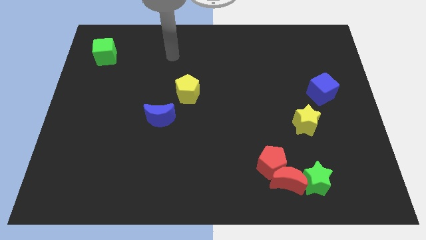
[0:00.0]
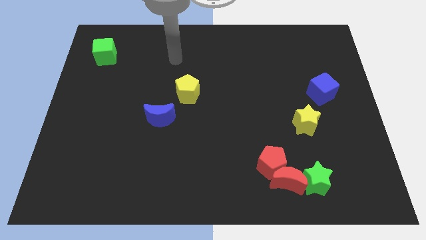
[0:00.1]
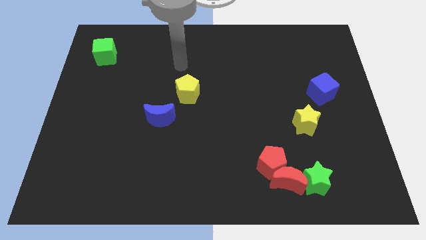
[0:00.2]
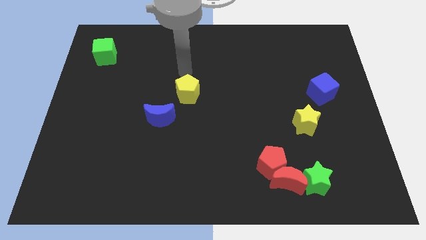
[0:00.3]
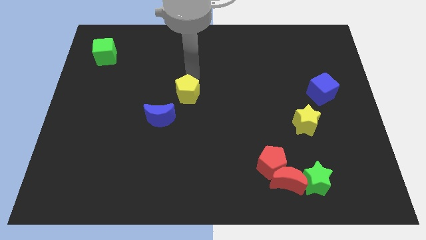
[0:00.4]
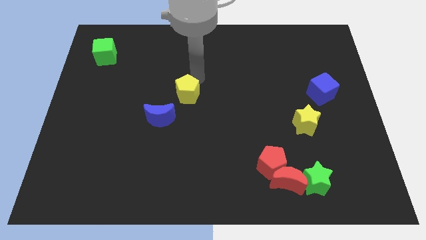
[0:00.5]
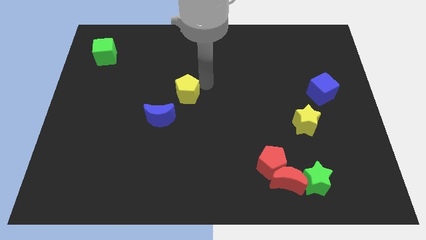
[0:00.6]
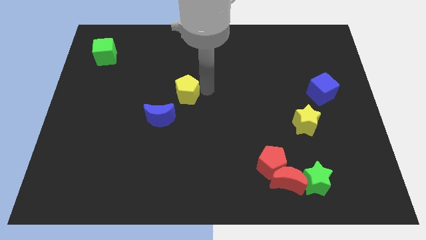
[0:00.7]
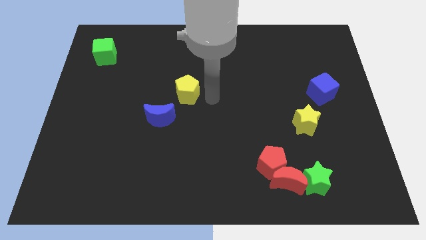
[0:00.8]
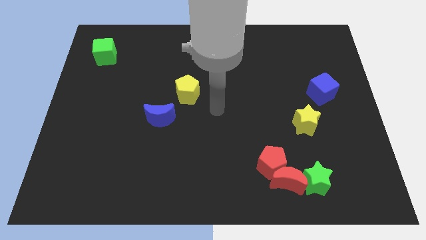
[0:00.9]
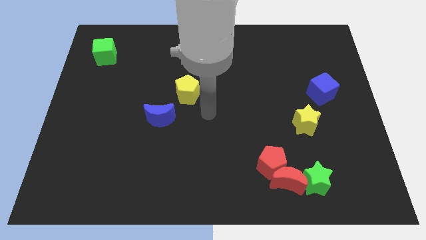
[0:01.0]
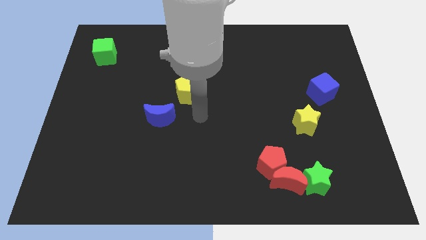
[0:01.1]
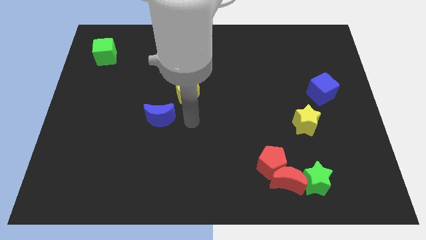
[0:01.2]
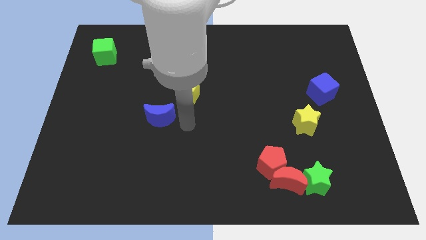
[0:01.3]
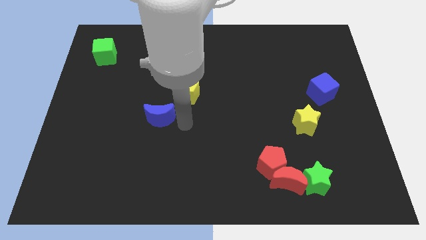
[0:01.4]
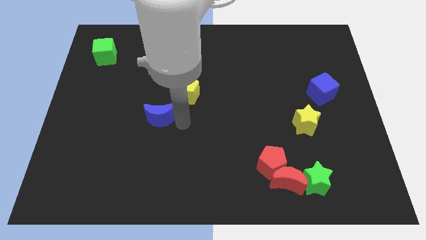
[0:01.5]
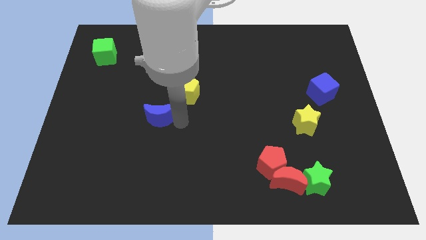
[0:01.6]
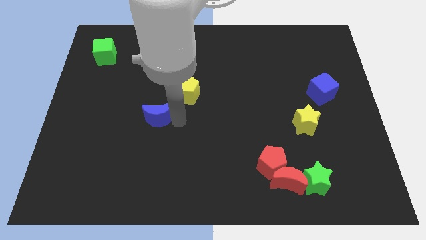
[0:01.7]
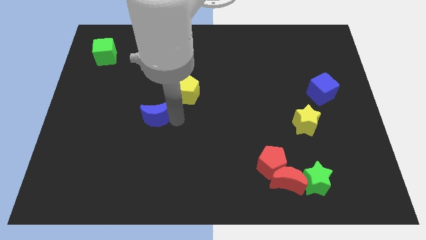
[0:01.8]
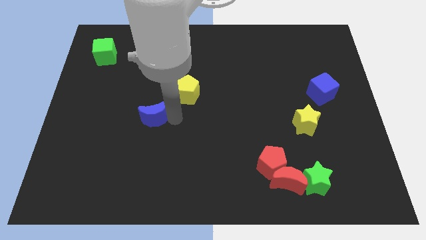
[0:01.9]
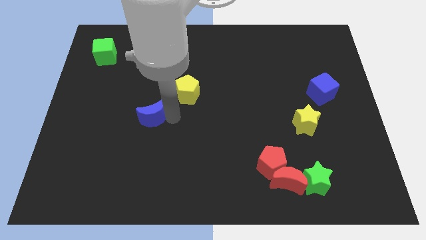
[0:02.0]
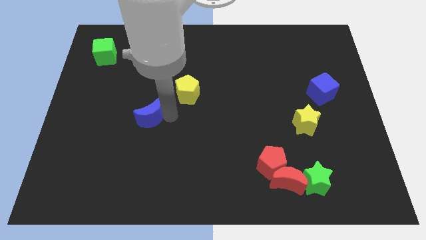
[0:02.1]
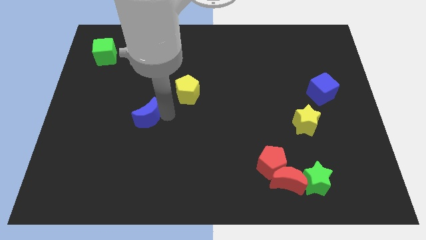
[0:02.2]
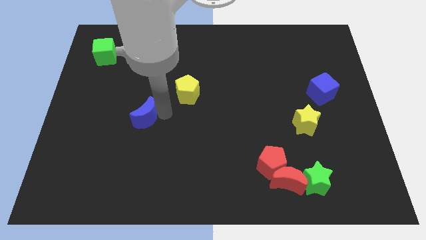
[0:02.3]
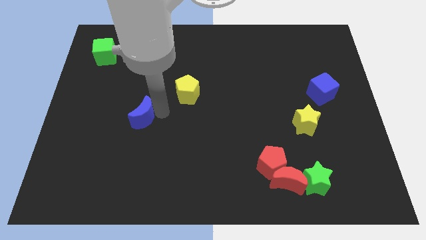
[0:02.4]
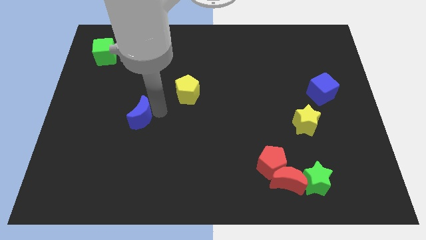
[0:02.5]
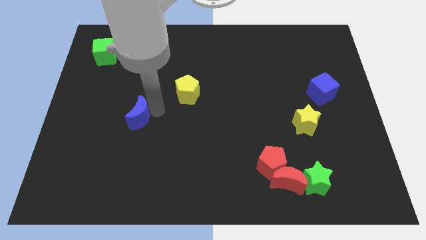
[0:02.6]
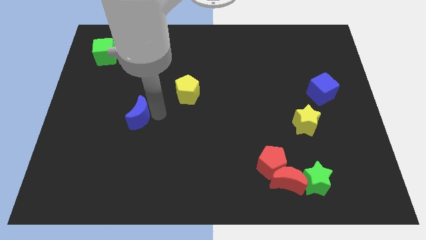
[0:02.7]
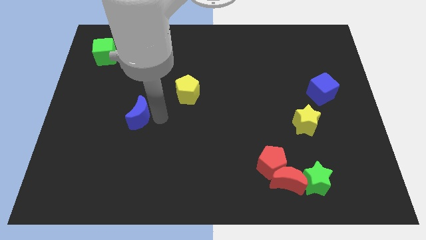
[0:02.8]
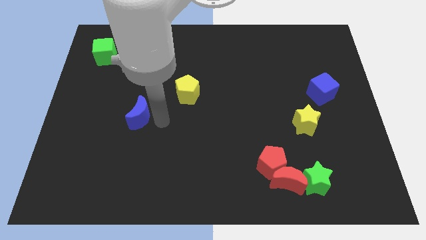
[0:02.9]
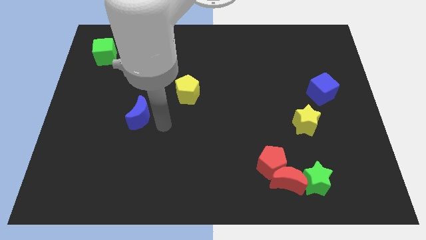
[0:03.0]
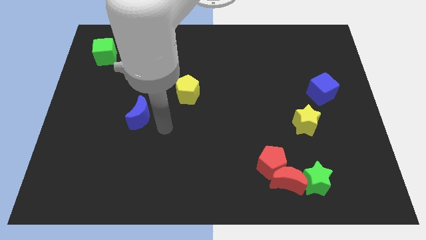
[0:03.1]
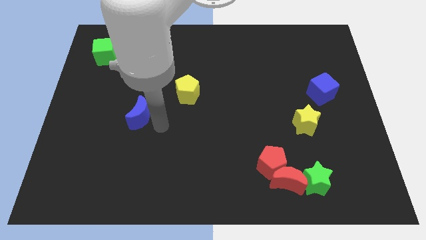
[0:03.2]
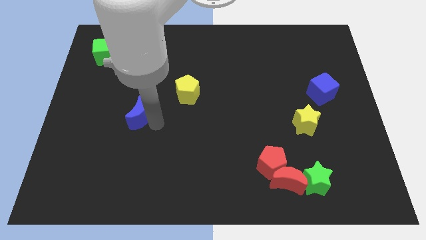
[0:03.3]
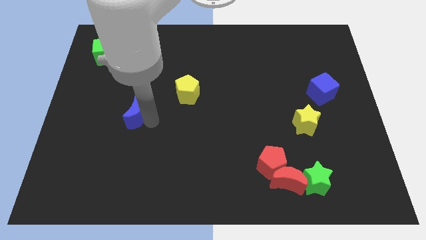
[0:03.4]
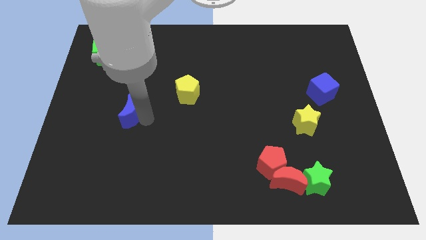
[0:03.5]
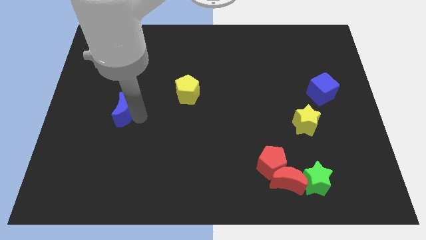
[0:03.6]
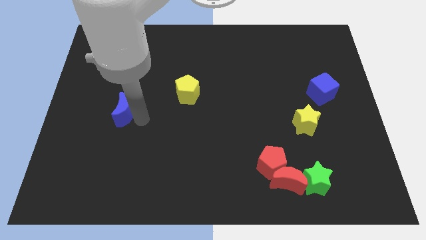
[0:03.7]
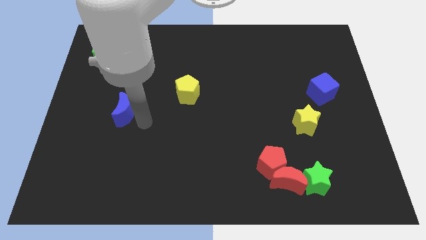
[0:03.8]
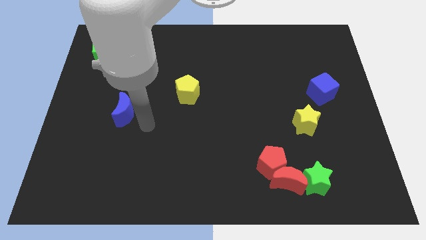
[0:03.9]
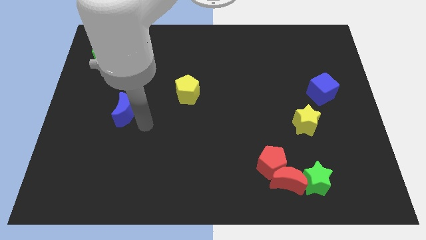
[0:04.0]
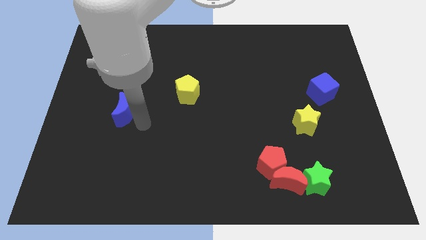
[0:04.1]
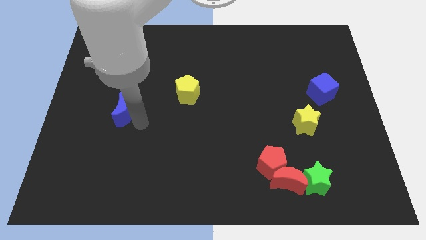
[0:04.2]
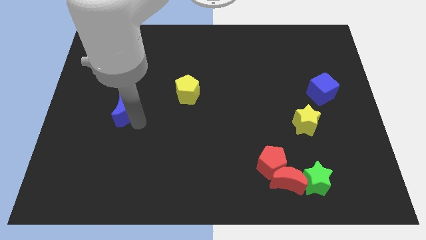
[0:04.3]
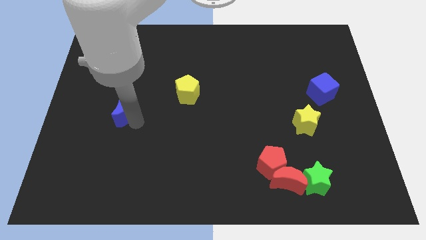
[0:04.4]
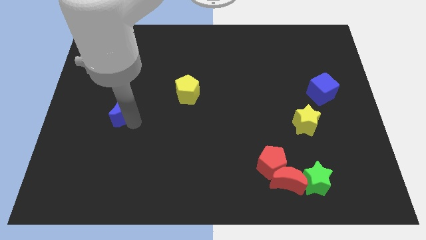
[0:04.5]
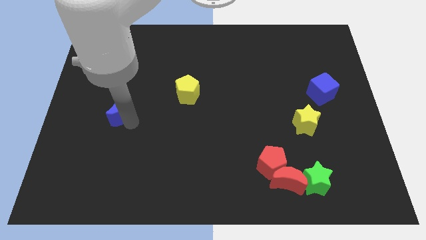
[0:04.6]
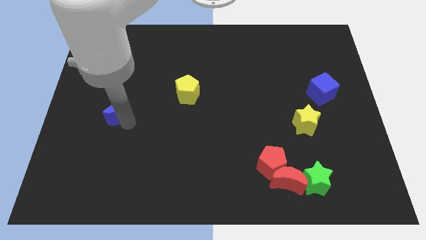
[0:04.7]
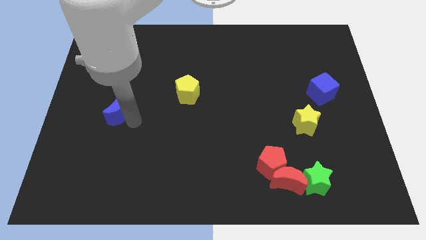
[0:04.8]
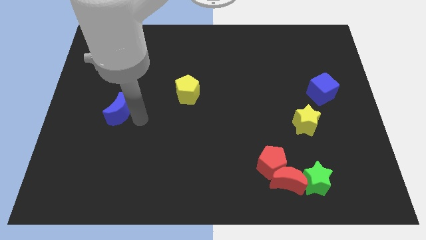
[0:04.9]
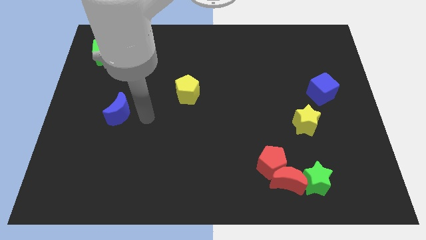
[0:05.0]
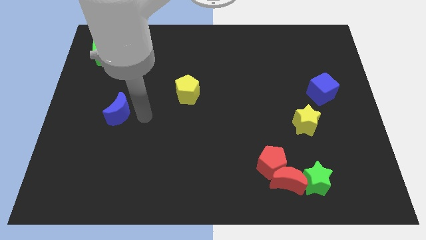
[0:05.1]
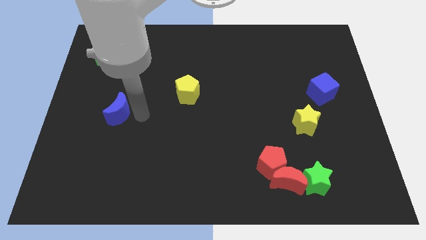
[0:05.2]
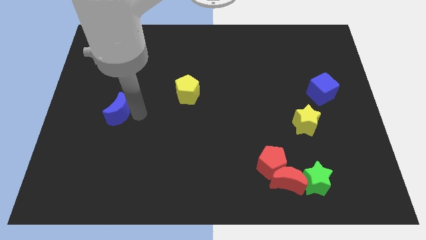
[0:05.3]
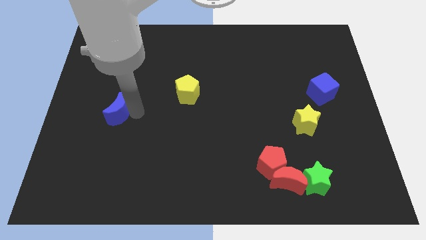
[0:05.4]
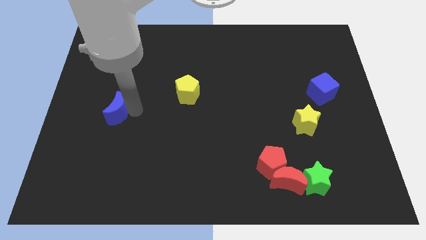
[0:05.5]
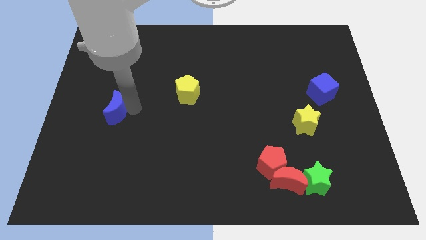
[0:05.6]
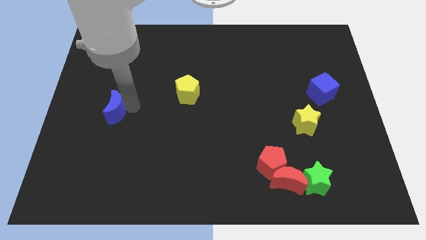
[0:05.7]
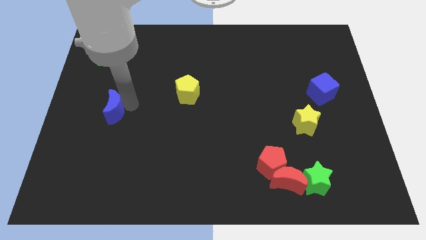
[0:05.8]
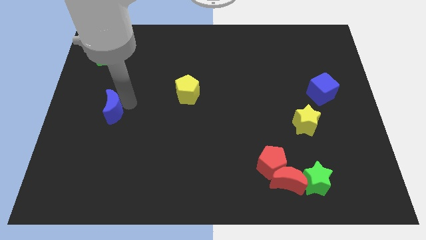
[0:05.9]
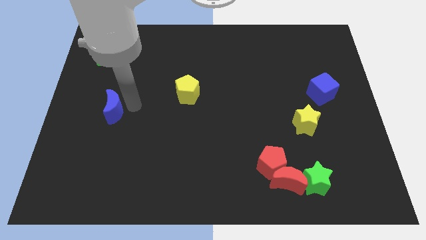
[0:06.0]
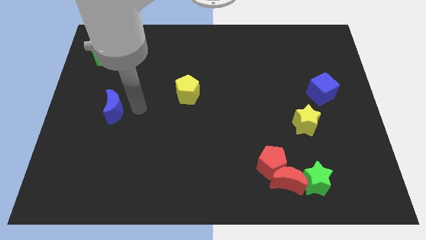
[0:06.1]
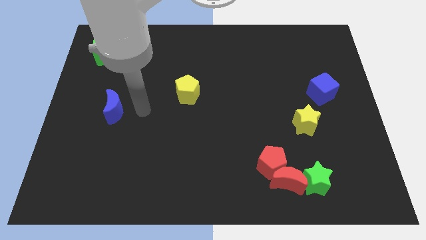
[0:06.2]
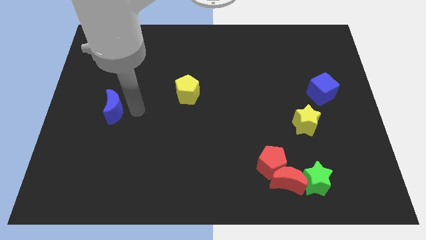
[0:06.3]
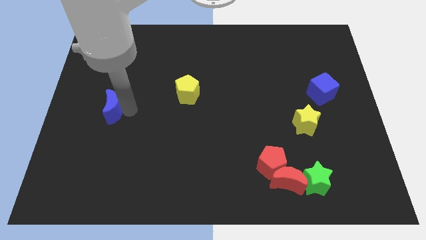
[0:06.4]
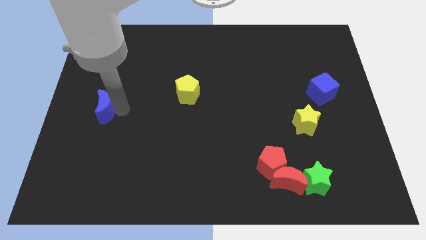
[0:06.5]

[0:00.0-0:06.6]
move the blue moon to the left side of the board

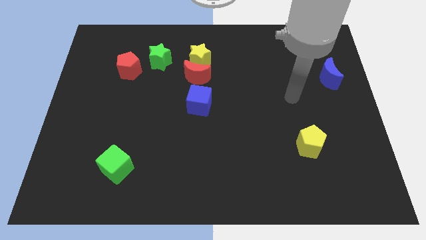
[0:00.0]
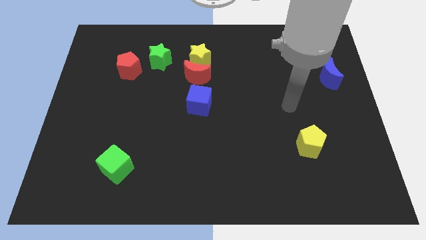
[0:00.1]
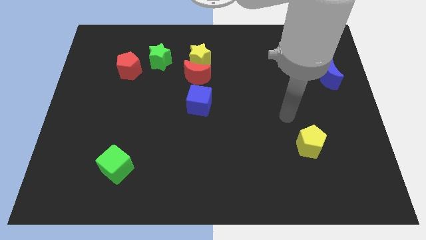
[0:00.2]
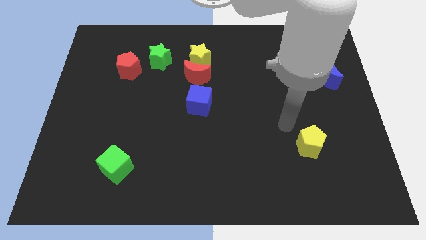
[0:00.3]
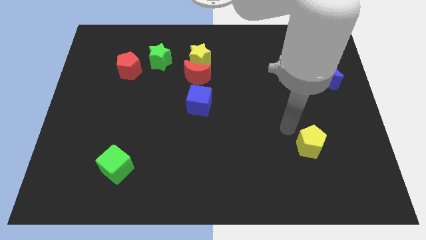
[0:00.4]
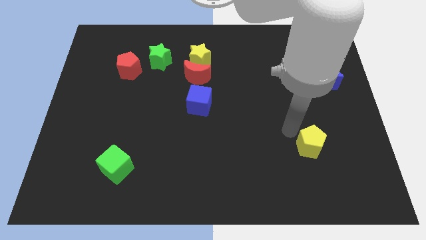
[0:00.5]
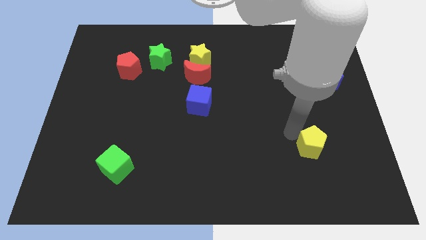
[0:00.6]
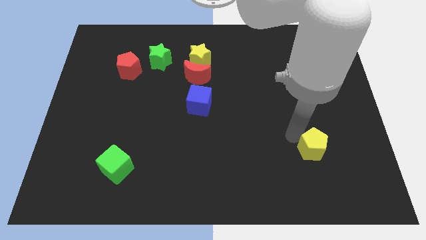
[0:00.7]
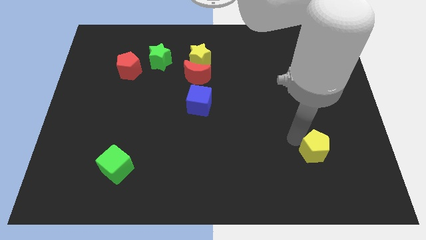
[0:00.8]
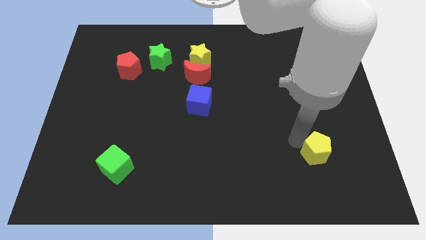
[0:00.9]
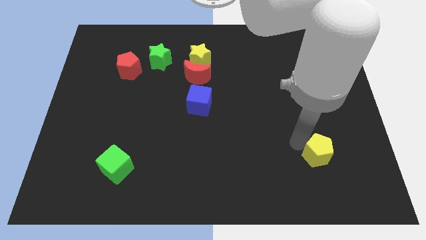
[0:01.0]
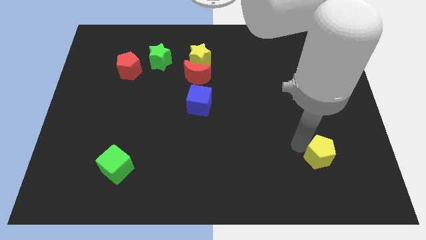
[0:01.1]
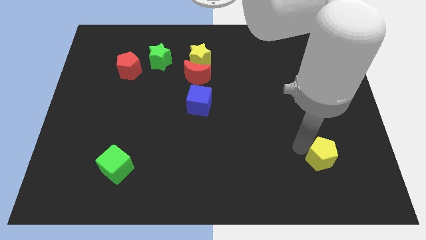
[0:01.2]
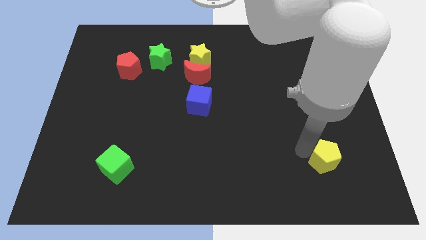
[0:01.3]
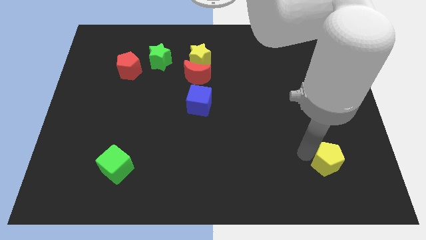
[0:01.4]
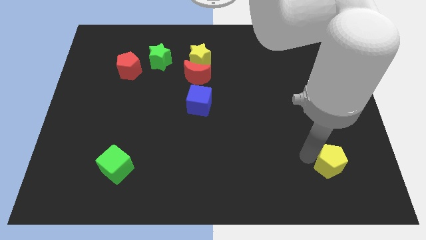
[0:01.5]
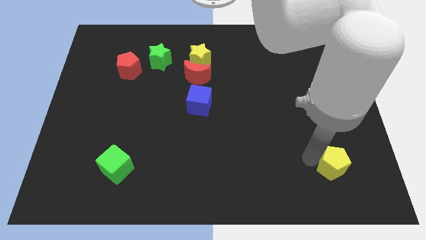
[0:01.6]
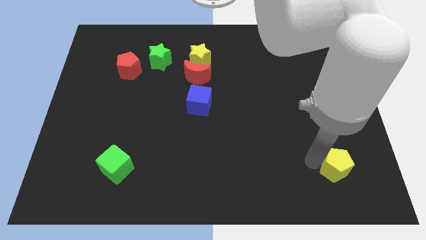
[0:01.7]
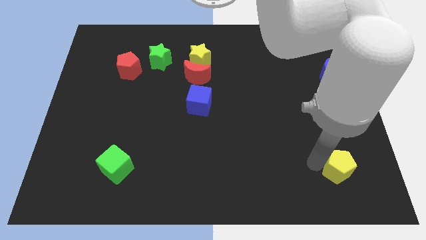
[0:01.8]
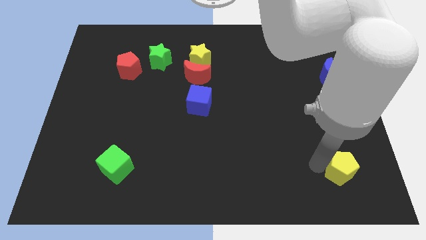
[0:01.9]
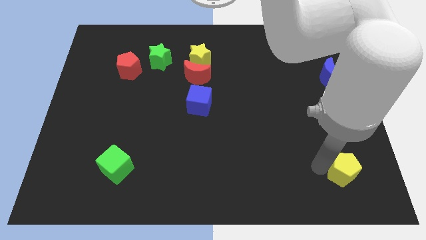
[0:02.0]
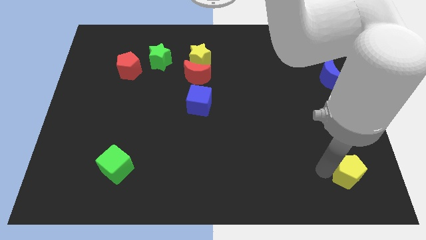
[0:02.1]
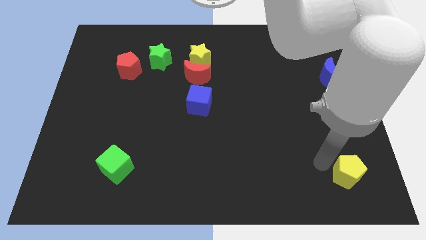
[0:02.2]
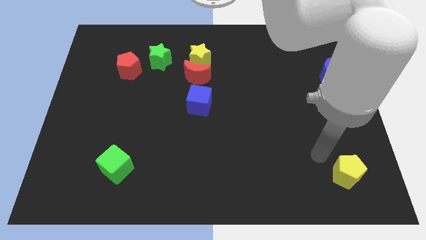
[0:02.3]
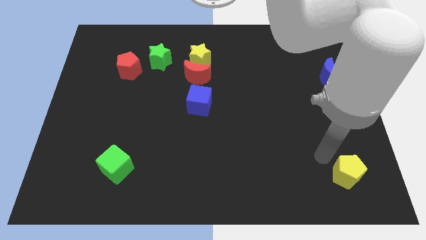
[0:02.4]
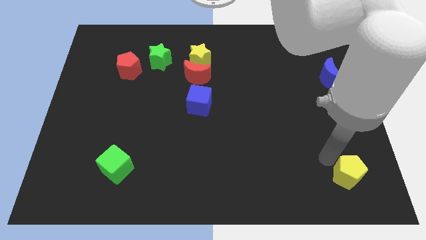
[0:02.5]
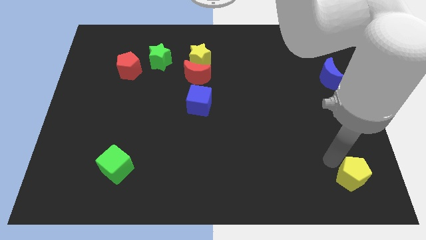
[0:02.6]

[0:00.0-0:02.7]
push the yellow pentagon to the bottom right corner
